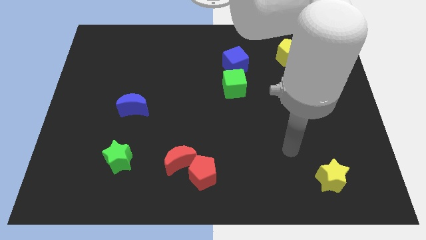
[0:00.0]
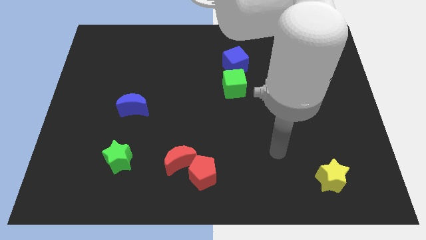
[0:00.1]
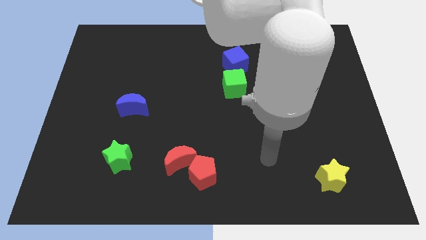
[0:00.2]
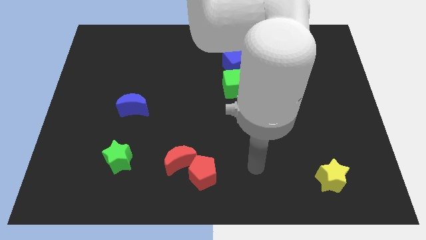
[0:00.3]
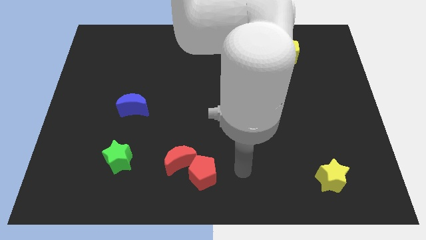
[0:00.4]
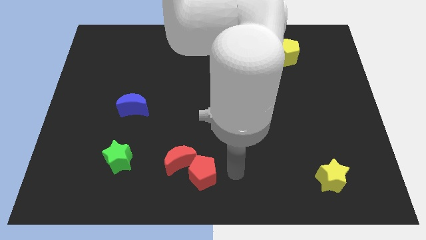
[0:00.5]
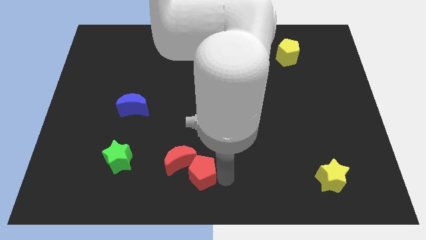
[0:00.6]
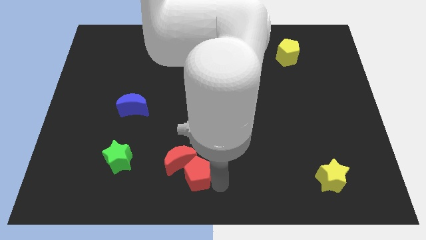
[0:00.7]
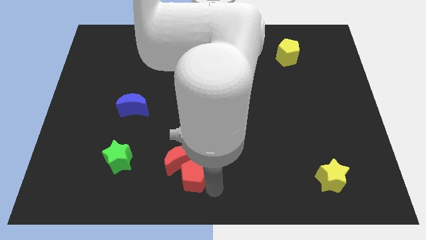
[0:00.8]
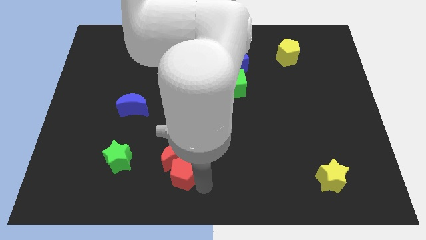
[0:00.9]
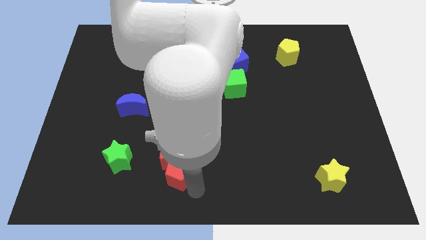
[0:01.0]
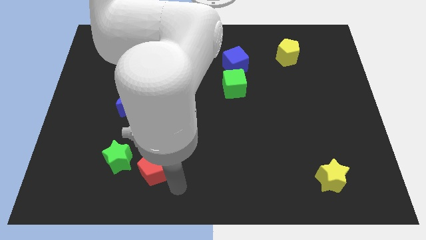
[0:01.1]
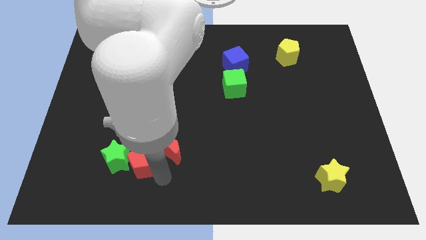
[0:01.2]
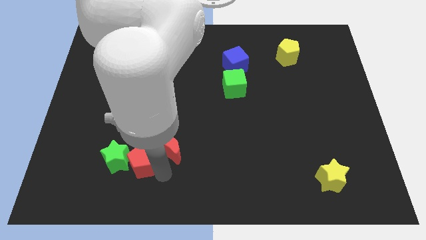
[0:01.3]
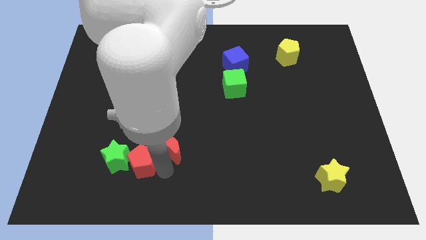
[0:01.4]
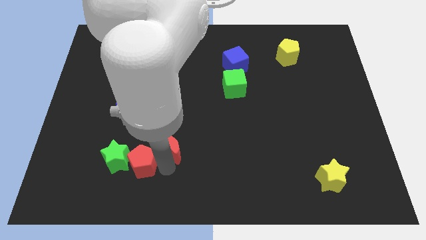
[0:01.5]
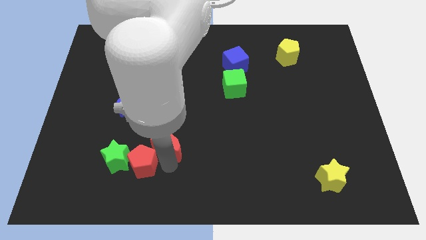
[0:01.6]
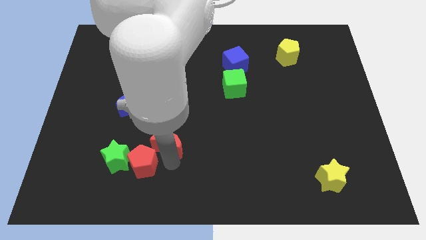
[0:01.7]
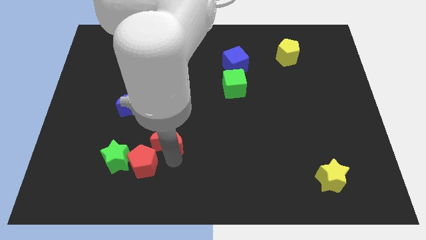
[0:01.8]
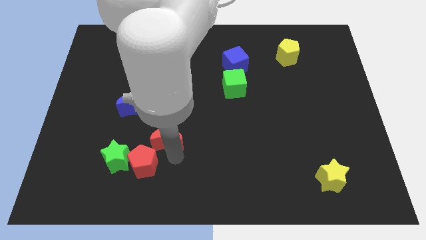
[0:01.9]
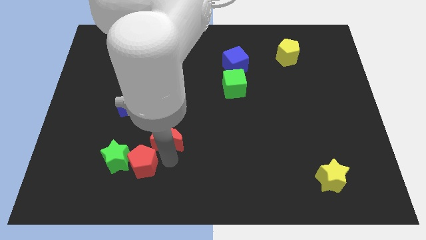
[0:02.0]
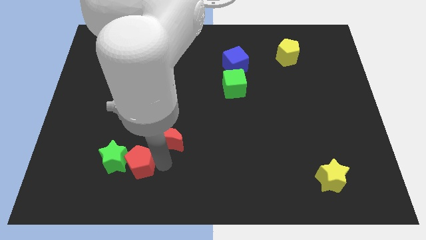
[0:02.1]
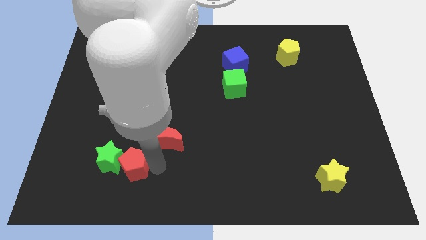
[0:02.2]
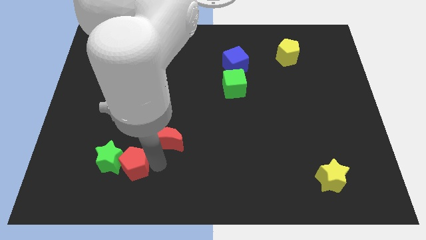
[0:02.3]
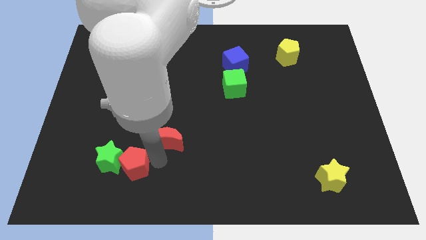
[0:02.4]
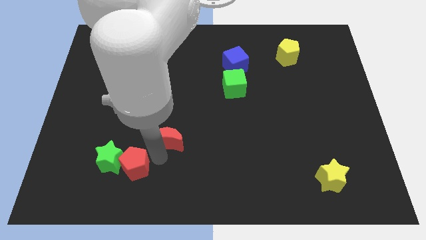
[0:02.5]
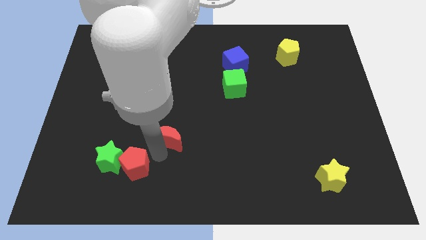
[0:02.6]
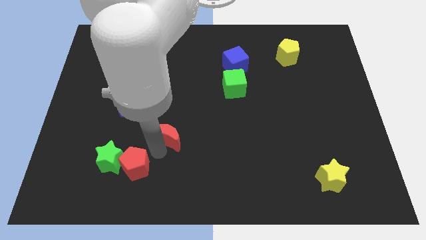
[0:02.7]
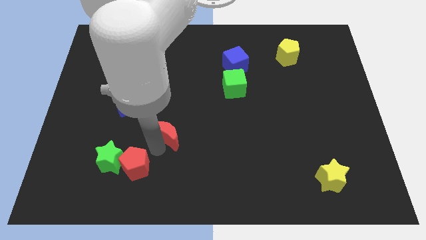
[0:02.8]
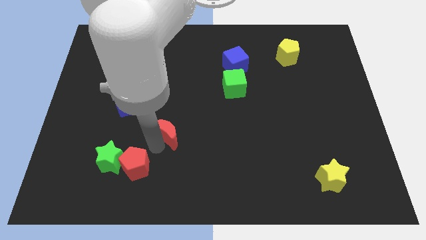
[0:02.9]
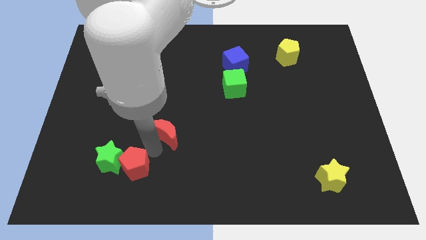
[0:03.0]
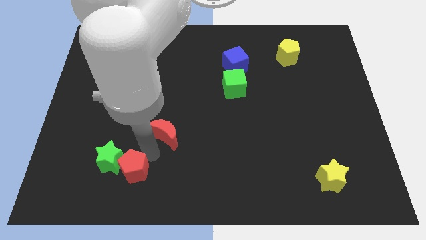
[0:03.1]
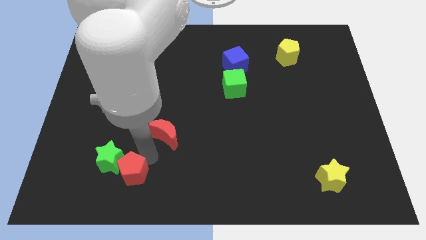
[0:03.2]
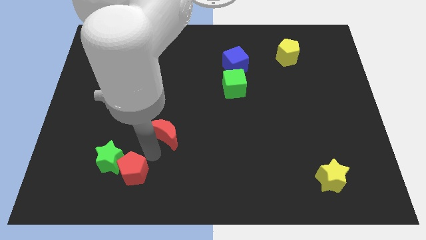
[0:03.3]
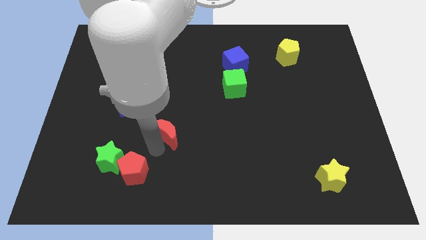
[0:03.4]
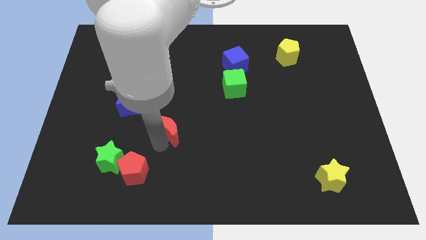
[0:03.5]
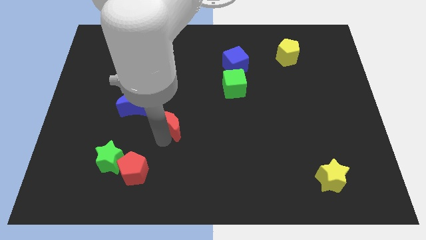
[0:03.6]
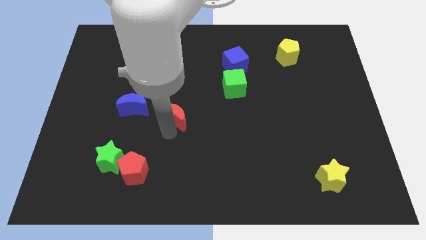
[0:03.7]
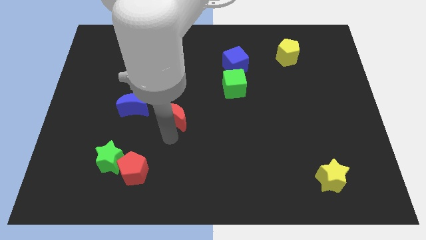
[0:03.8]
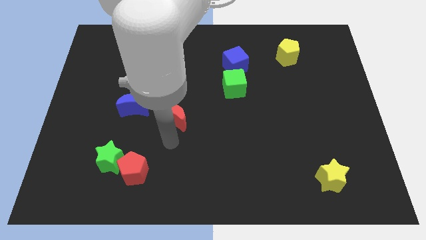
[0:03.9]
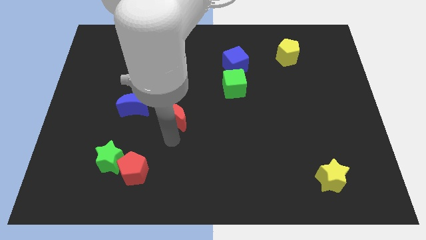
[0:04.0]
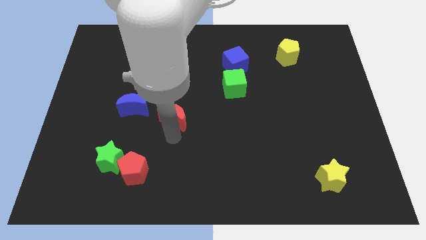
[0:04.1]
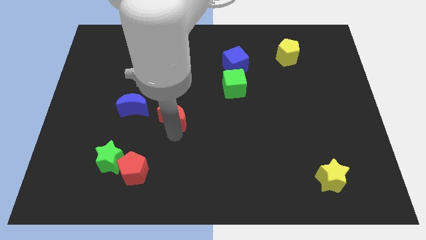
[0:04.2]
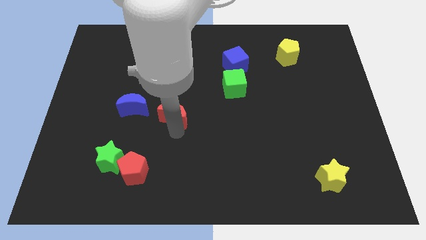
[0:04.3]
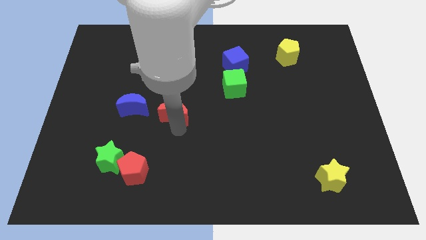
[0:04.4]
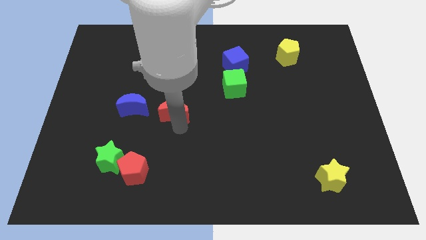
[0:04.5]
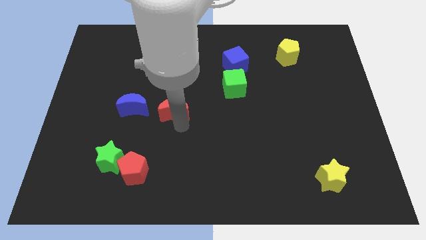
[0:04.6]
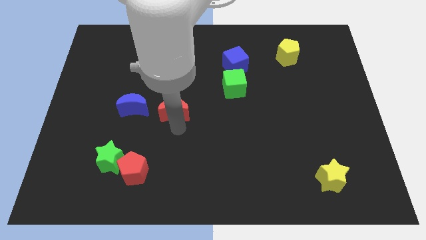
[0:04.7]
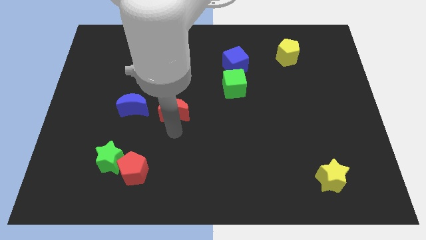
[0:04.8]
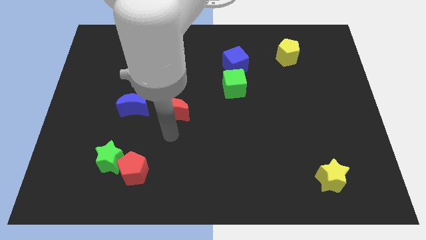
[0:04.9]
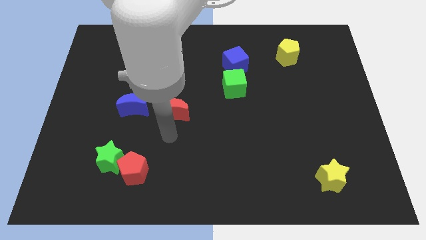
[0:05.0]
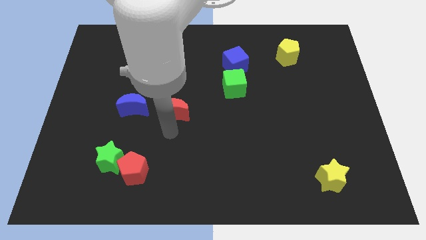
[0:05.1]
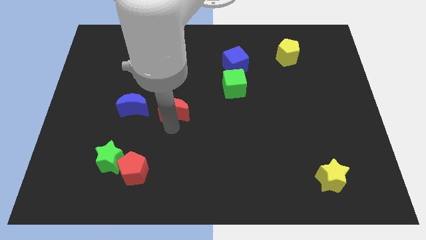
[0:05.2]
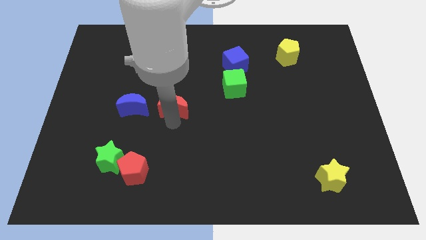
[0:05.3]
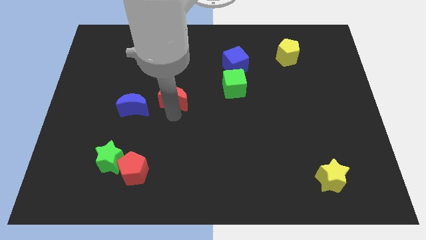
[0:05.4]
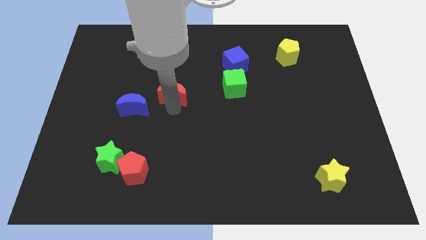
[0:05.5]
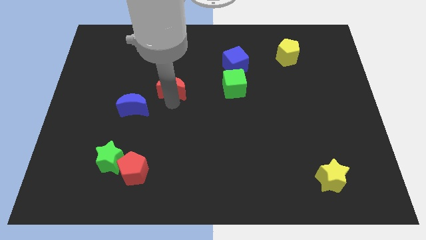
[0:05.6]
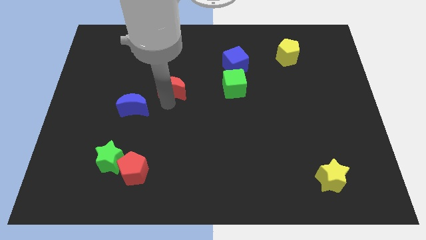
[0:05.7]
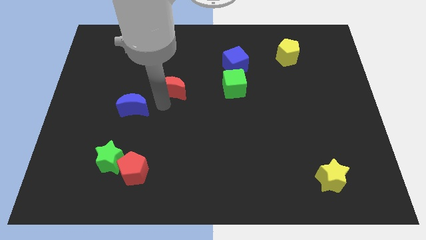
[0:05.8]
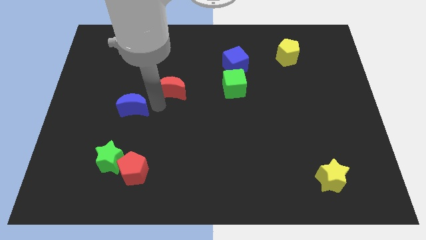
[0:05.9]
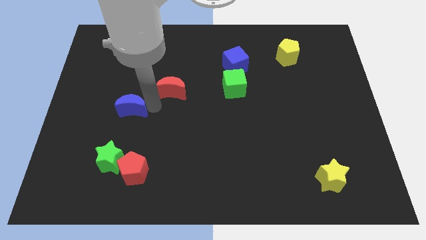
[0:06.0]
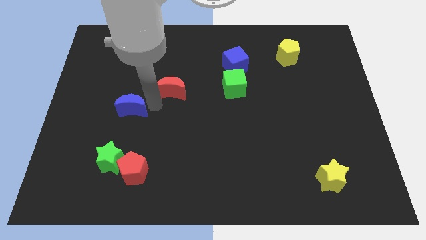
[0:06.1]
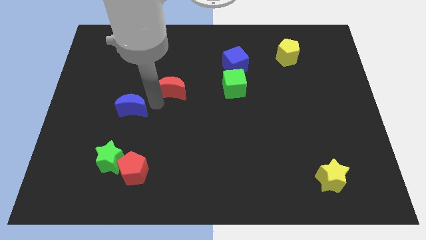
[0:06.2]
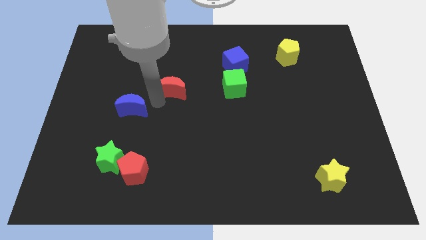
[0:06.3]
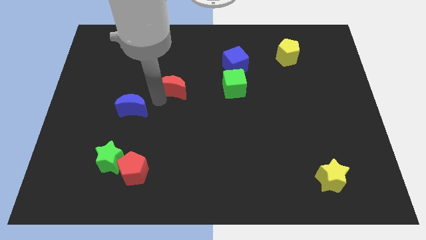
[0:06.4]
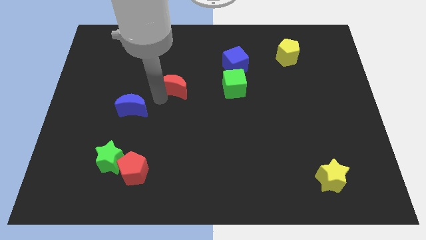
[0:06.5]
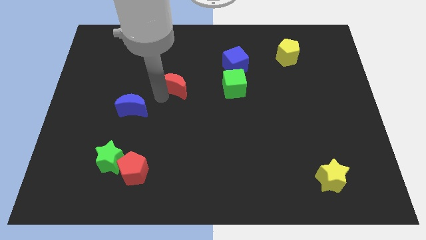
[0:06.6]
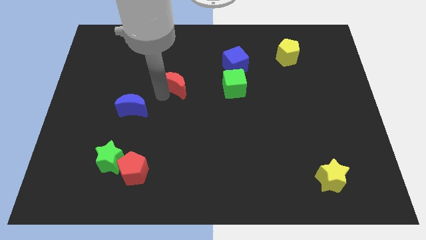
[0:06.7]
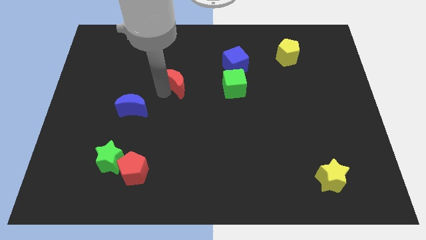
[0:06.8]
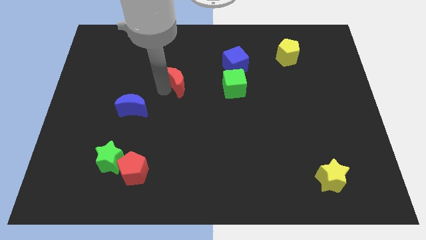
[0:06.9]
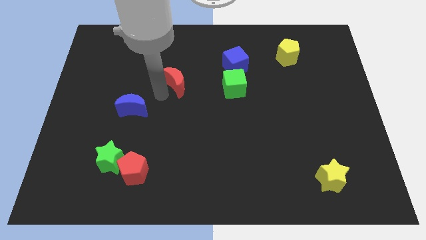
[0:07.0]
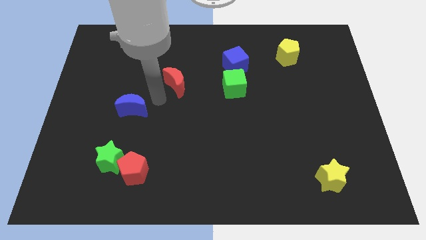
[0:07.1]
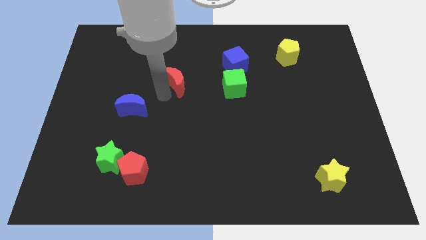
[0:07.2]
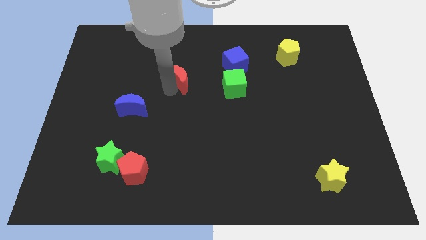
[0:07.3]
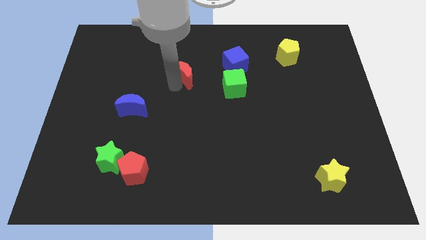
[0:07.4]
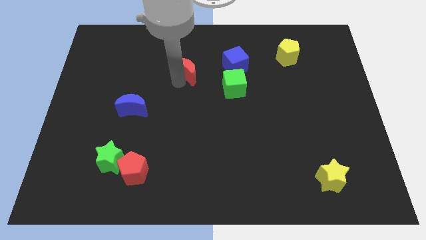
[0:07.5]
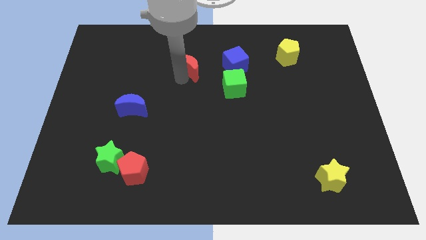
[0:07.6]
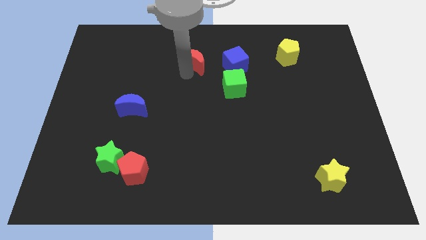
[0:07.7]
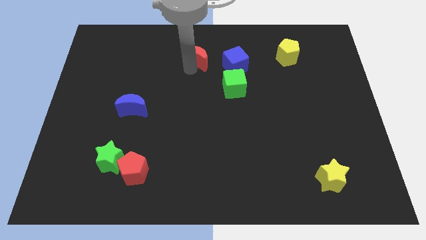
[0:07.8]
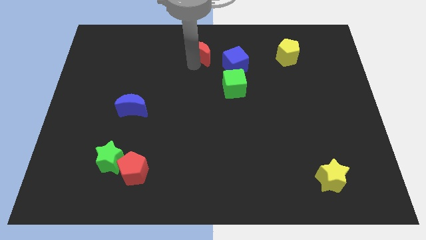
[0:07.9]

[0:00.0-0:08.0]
slide the red moon to the towards your base
